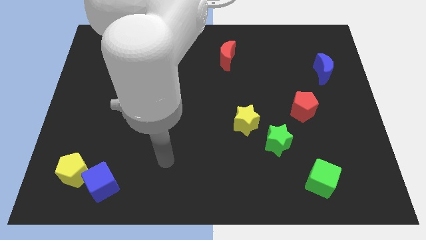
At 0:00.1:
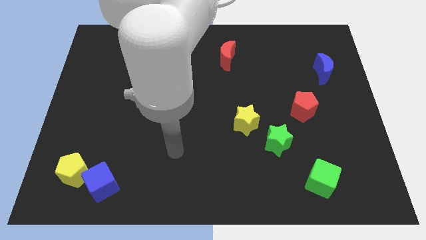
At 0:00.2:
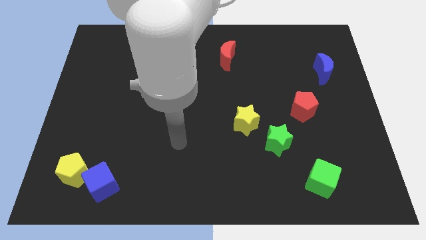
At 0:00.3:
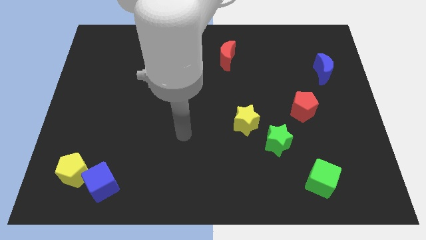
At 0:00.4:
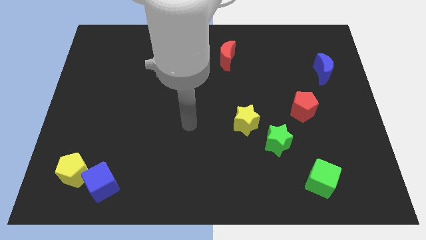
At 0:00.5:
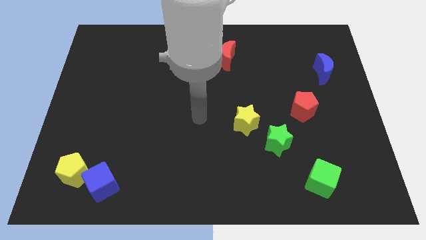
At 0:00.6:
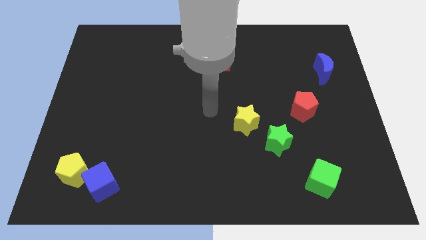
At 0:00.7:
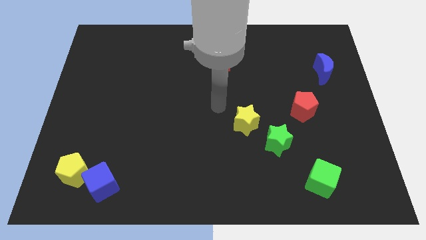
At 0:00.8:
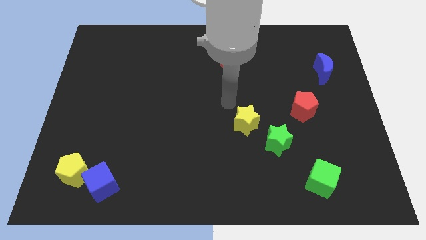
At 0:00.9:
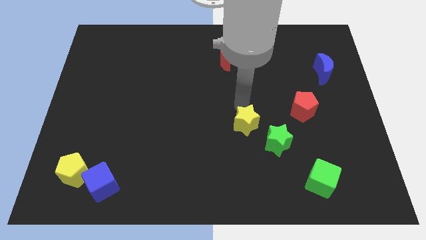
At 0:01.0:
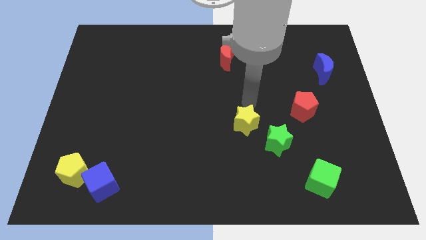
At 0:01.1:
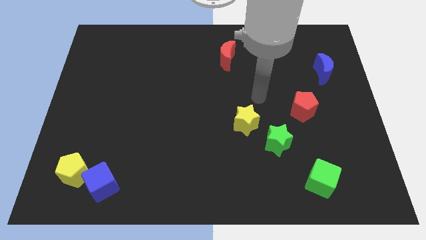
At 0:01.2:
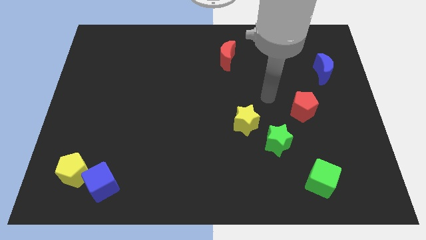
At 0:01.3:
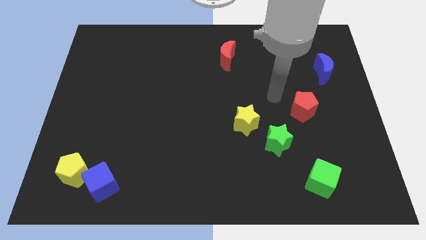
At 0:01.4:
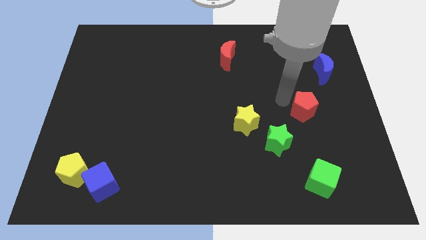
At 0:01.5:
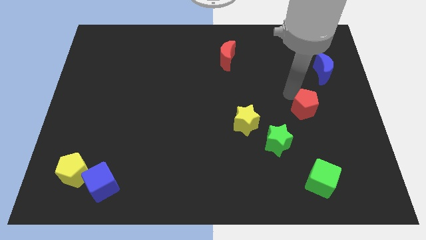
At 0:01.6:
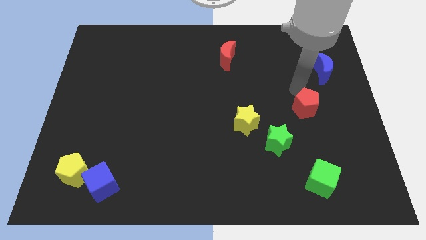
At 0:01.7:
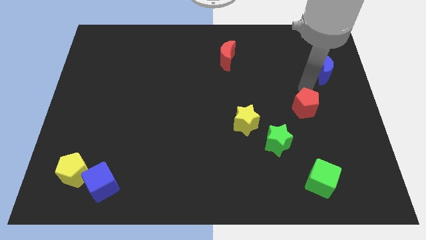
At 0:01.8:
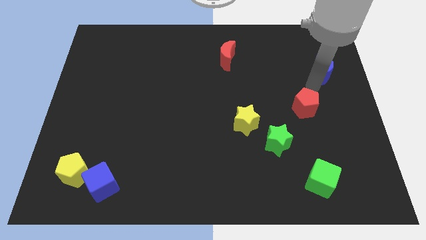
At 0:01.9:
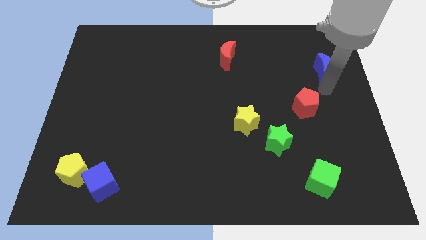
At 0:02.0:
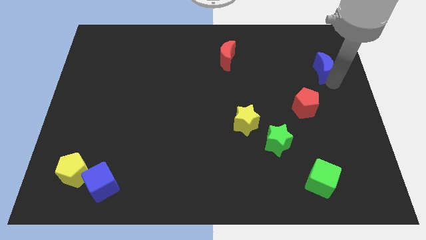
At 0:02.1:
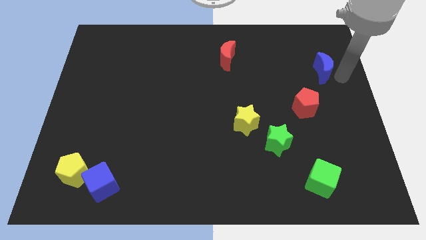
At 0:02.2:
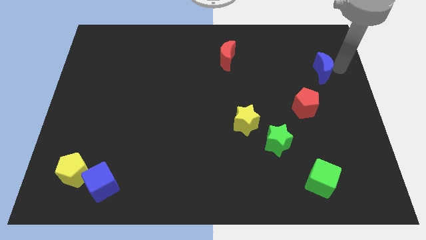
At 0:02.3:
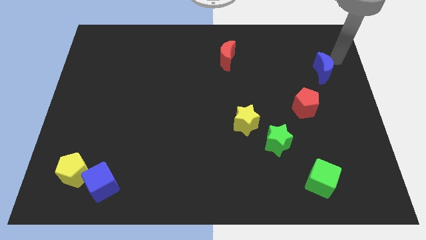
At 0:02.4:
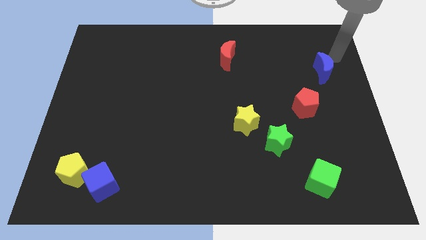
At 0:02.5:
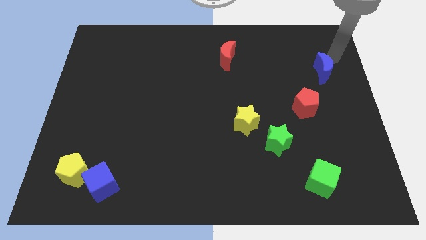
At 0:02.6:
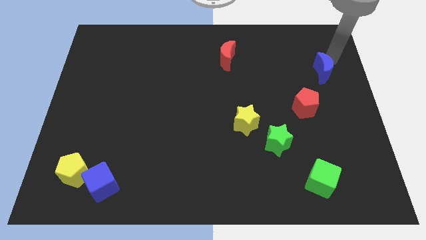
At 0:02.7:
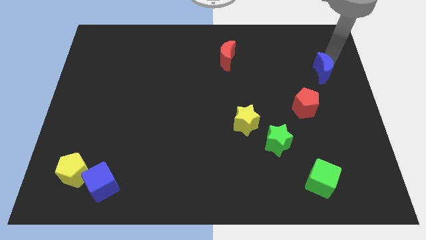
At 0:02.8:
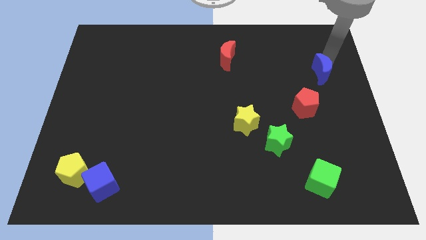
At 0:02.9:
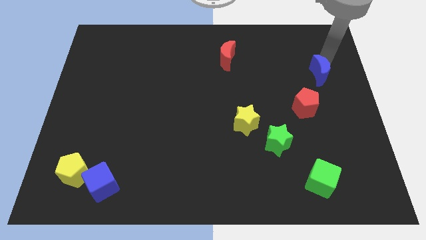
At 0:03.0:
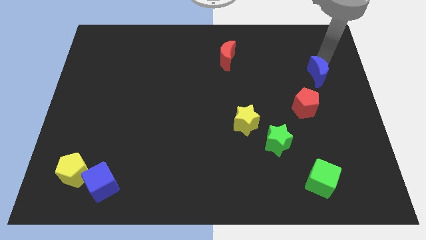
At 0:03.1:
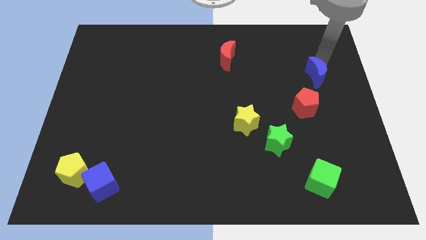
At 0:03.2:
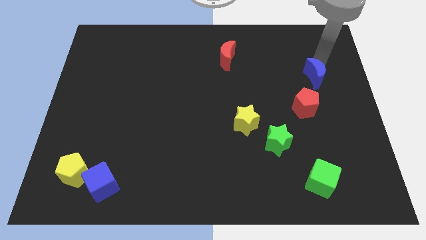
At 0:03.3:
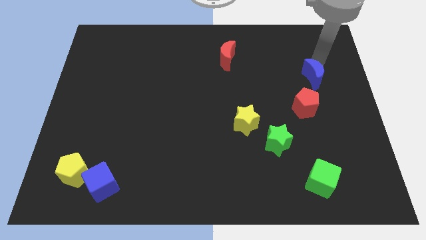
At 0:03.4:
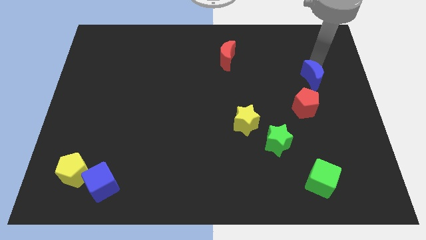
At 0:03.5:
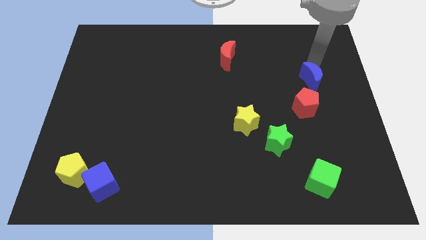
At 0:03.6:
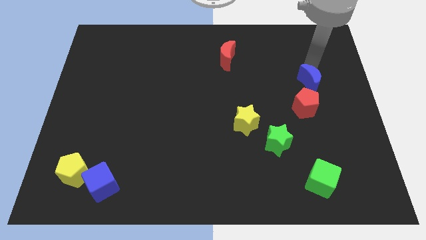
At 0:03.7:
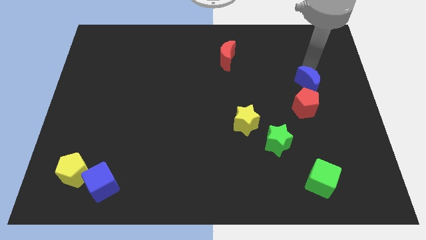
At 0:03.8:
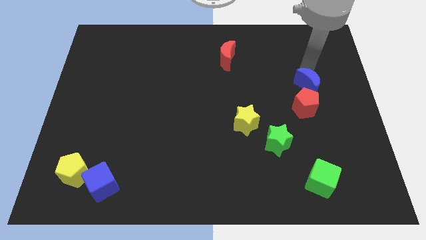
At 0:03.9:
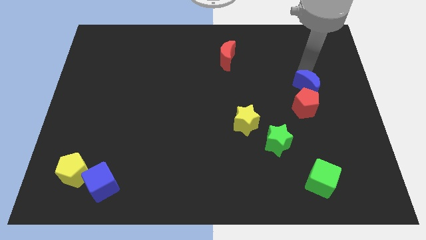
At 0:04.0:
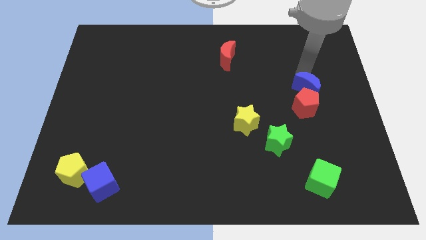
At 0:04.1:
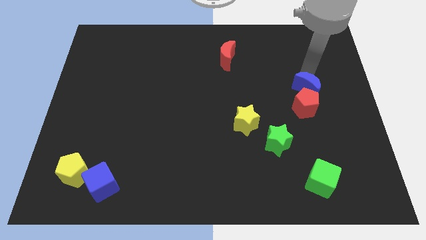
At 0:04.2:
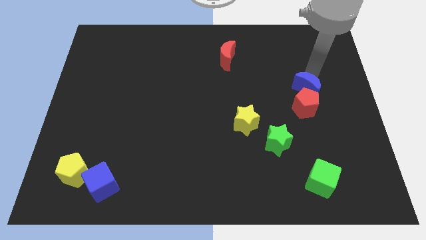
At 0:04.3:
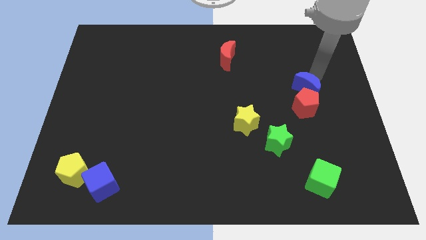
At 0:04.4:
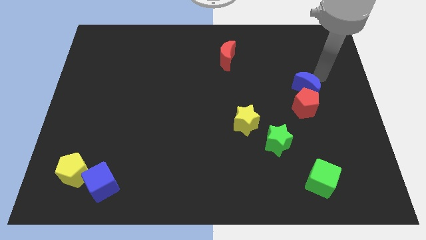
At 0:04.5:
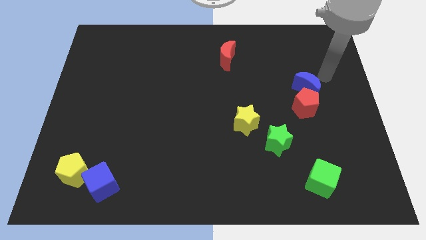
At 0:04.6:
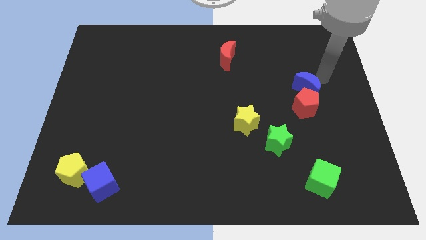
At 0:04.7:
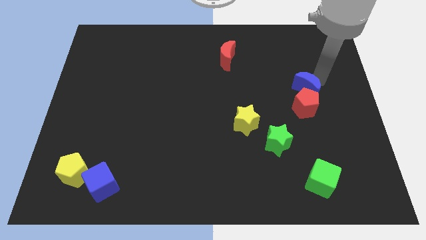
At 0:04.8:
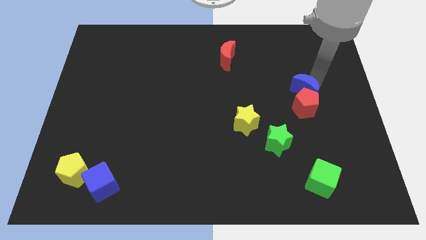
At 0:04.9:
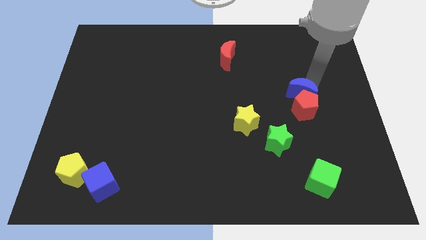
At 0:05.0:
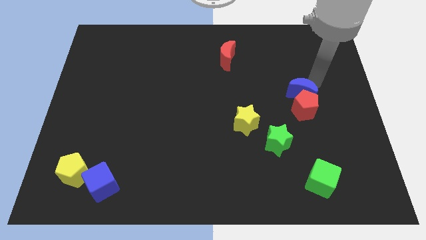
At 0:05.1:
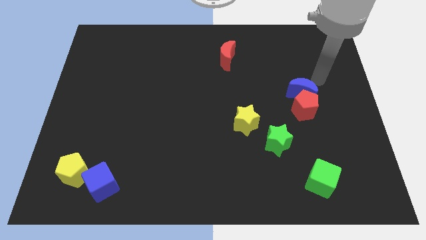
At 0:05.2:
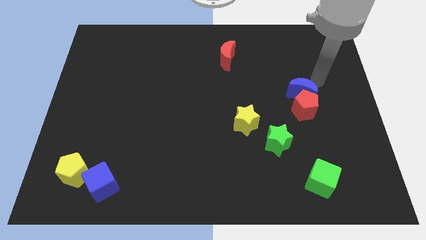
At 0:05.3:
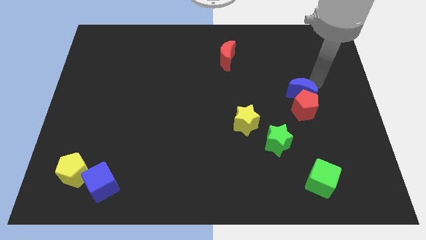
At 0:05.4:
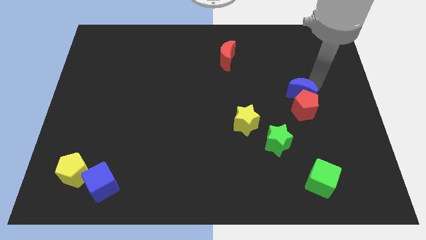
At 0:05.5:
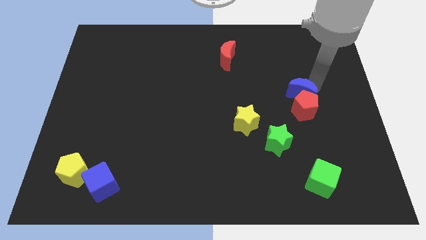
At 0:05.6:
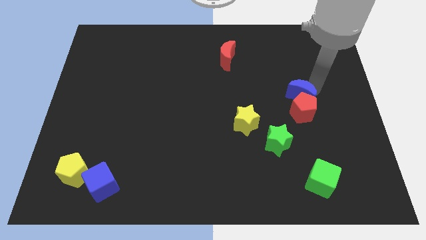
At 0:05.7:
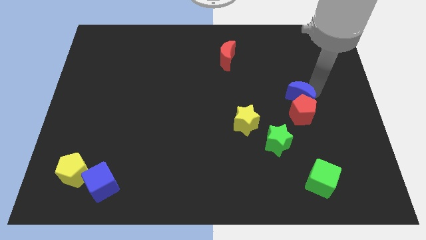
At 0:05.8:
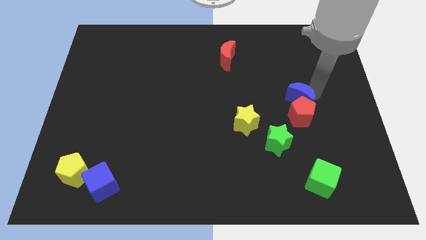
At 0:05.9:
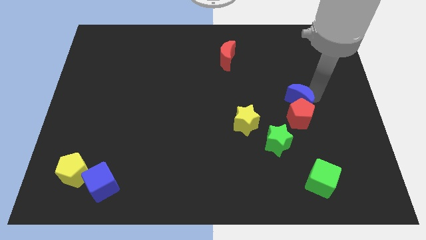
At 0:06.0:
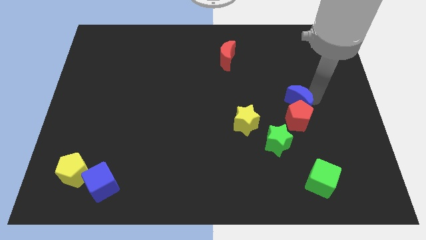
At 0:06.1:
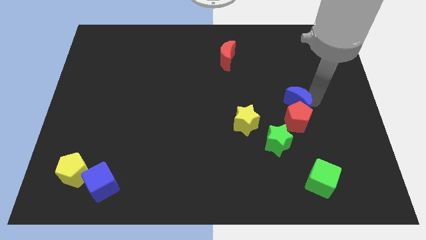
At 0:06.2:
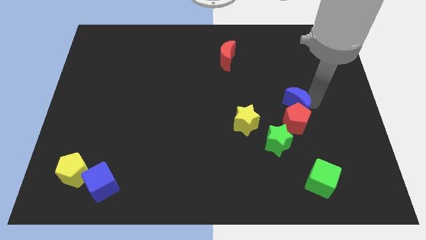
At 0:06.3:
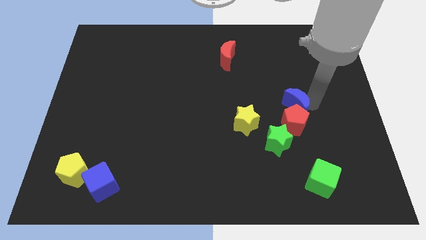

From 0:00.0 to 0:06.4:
put the blue moon to the right side of the yellow star

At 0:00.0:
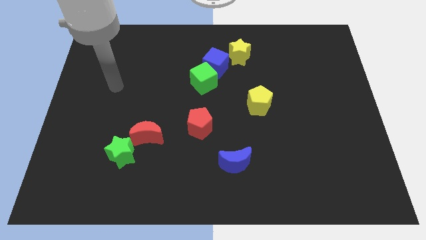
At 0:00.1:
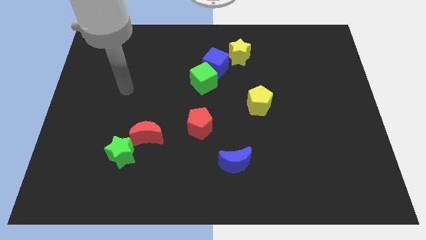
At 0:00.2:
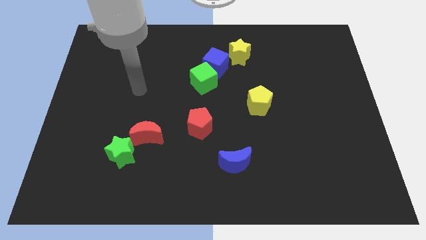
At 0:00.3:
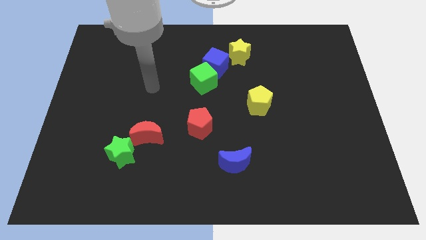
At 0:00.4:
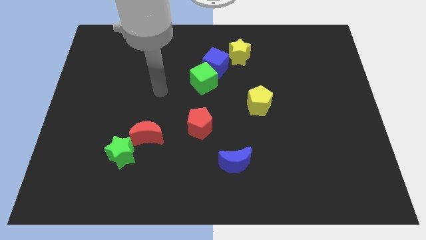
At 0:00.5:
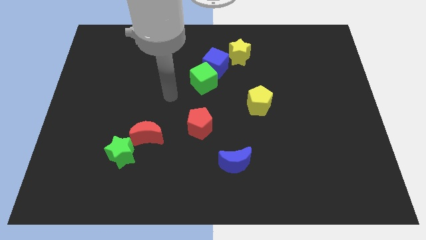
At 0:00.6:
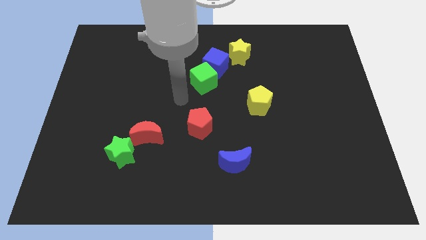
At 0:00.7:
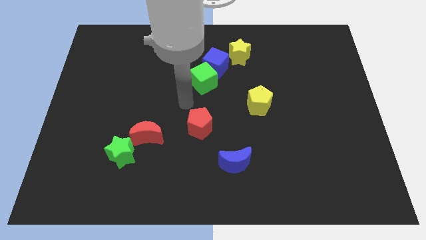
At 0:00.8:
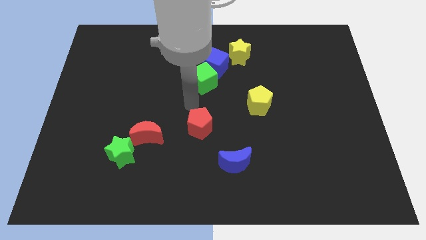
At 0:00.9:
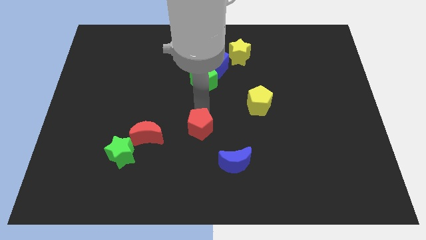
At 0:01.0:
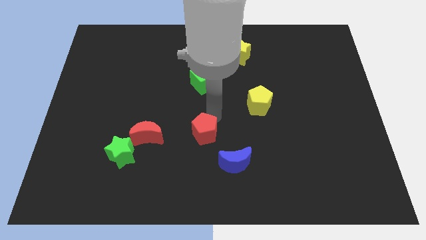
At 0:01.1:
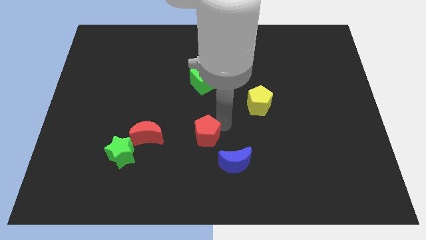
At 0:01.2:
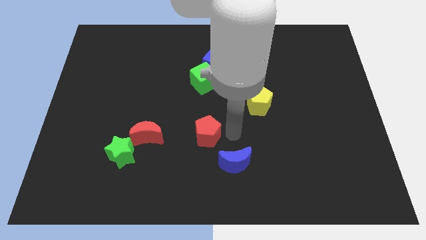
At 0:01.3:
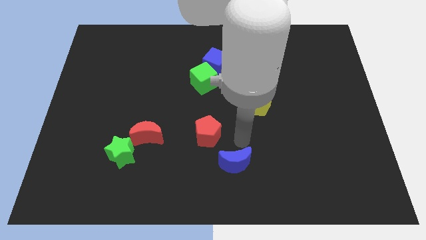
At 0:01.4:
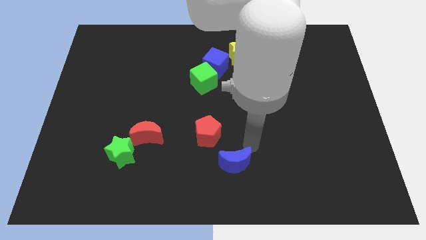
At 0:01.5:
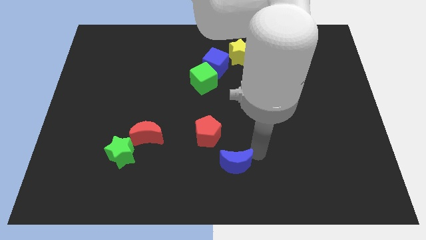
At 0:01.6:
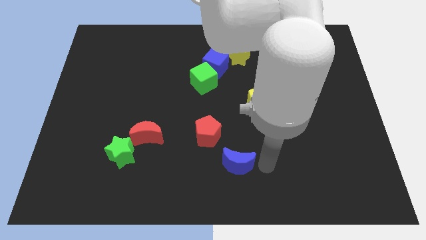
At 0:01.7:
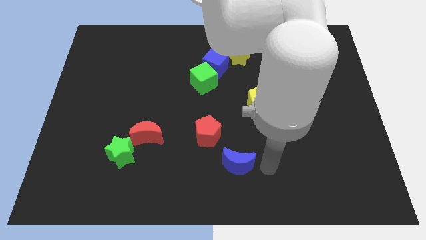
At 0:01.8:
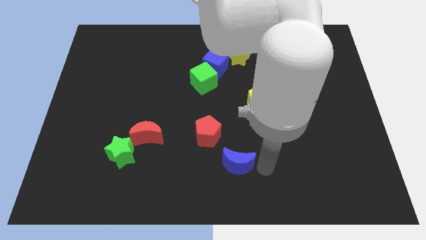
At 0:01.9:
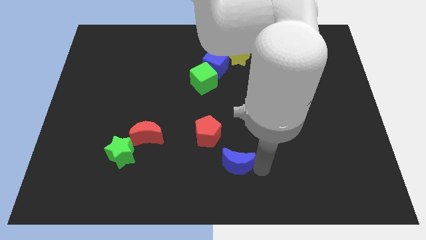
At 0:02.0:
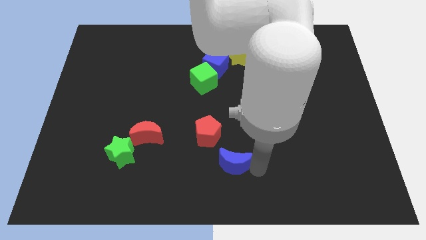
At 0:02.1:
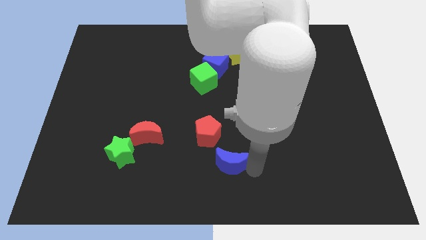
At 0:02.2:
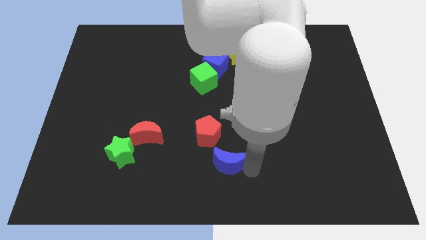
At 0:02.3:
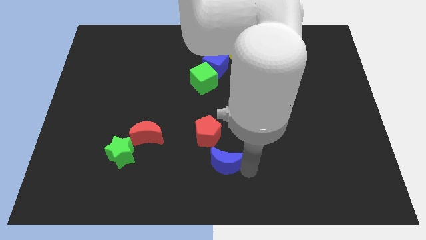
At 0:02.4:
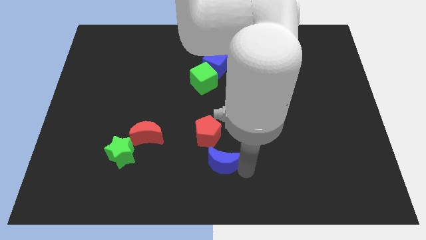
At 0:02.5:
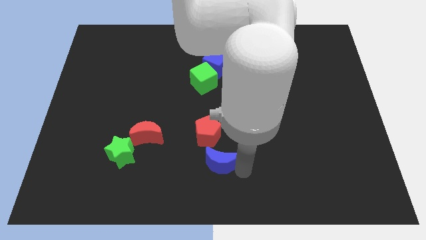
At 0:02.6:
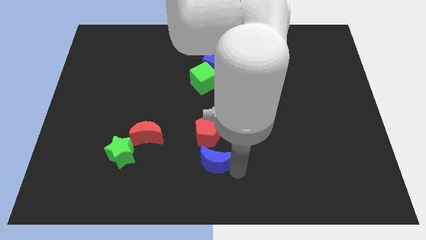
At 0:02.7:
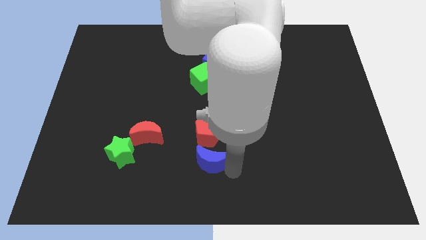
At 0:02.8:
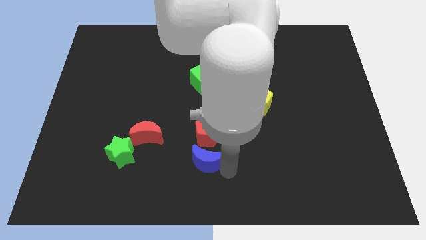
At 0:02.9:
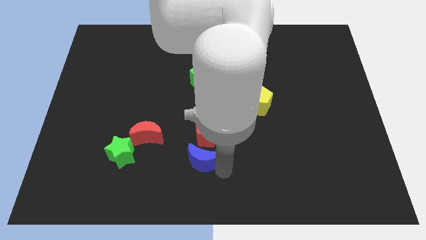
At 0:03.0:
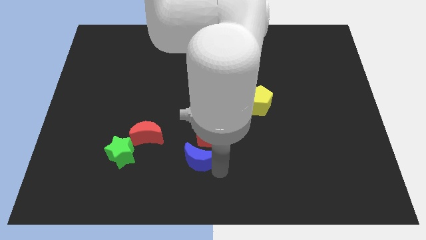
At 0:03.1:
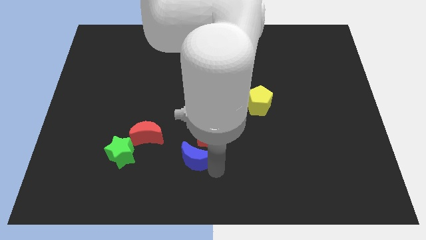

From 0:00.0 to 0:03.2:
move the blue moon just right of the green star
